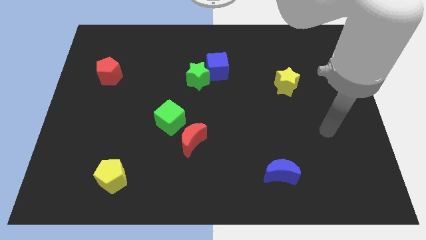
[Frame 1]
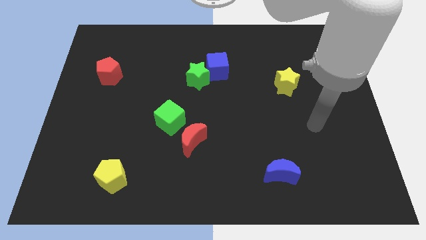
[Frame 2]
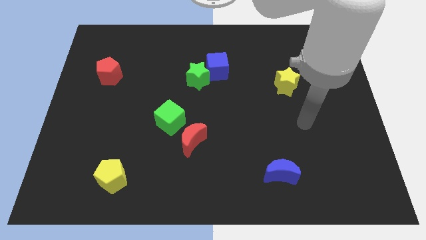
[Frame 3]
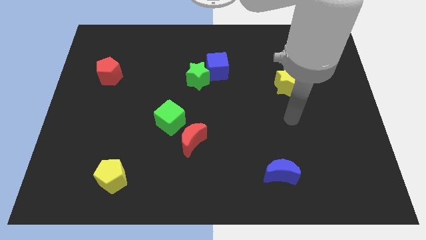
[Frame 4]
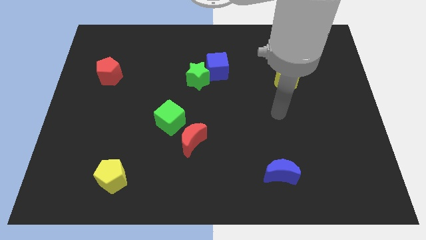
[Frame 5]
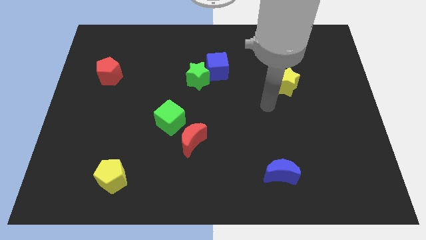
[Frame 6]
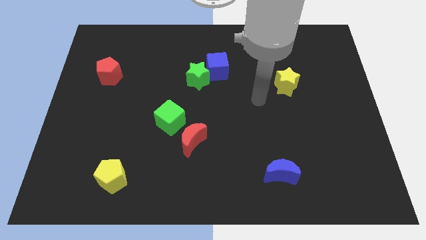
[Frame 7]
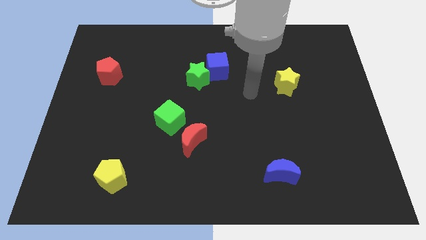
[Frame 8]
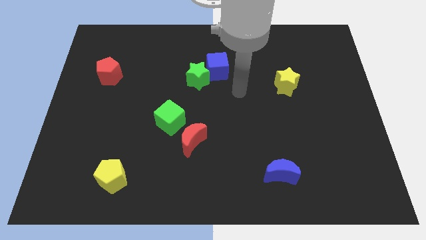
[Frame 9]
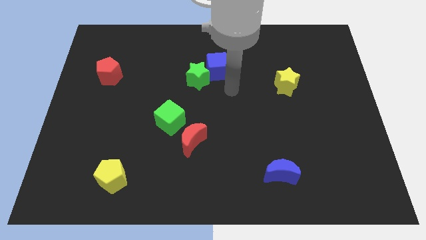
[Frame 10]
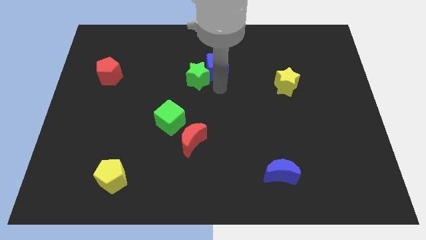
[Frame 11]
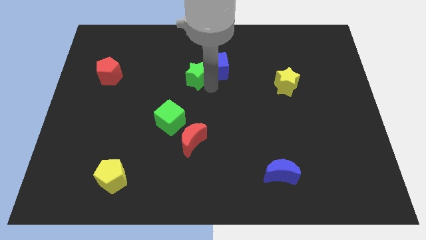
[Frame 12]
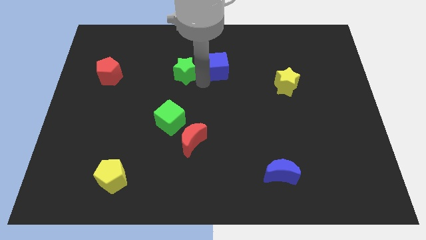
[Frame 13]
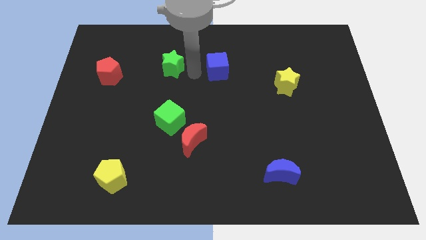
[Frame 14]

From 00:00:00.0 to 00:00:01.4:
move the blue cube away from the green star

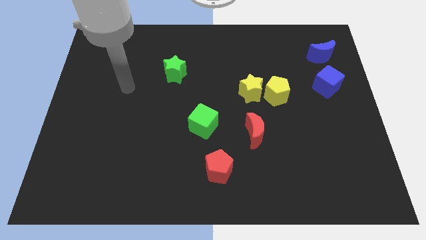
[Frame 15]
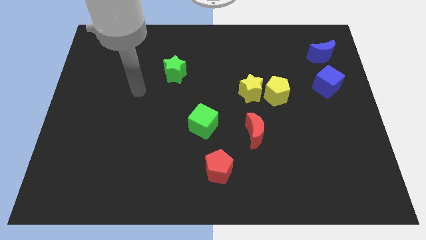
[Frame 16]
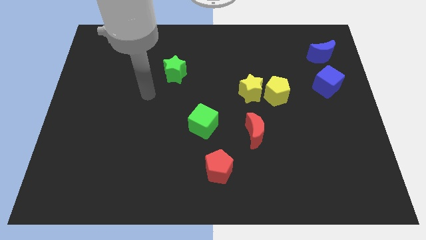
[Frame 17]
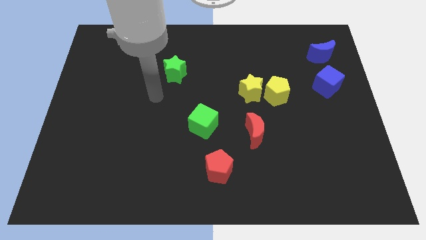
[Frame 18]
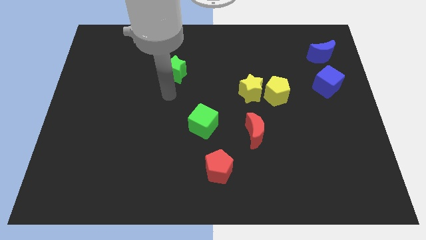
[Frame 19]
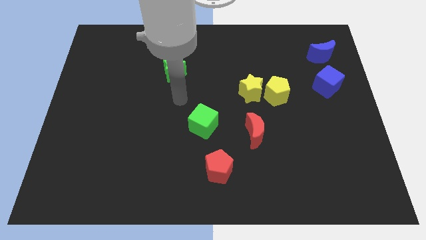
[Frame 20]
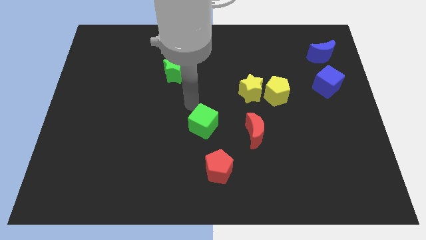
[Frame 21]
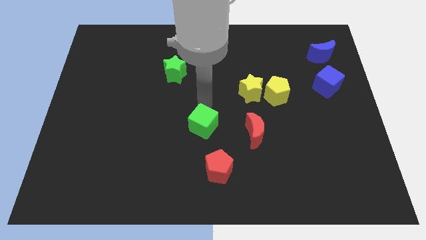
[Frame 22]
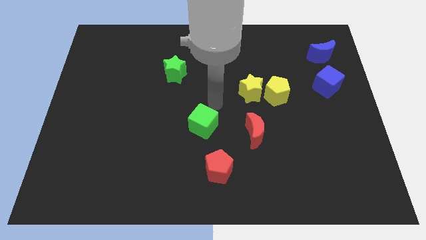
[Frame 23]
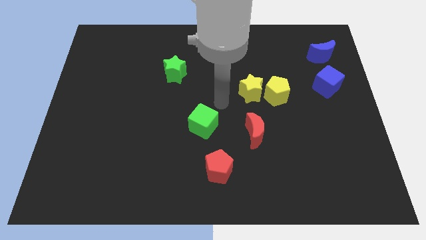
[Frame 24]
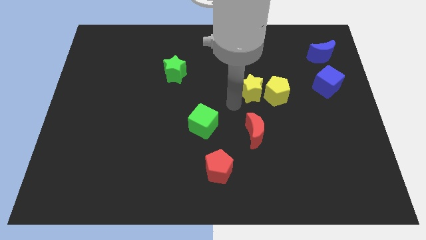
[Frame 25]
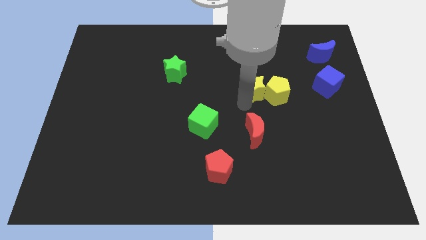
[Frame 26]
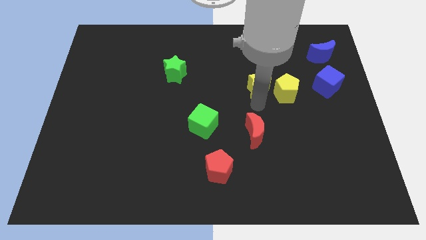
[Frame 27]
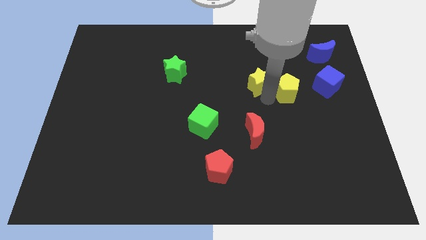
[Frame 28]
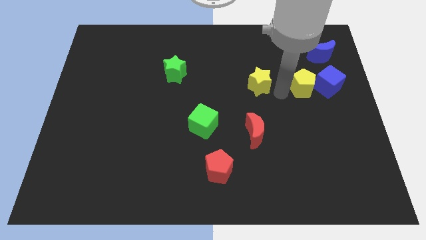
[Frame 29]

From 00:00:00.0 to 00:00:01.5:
separate the yellow star from the yellow pentagon

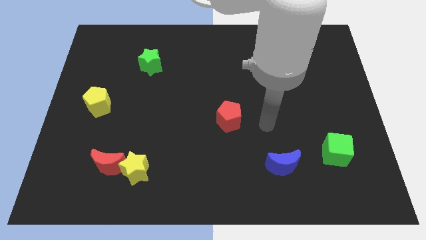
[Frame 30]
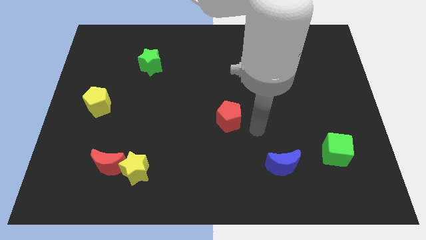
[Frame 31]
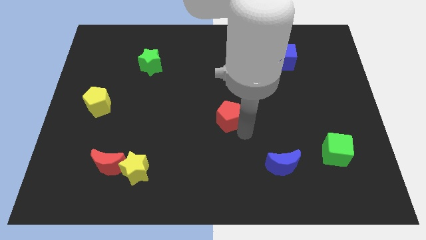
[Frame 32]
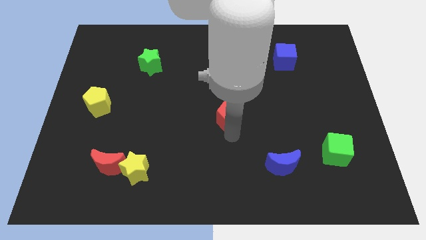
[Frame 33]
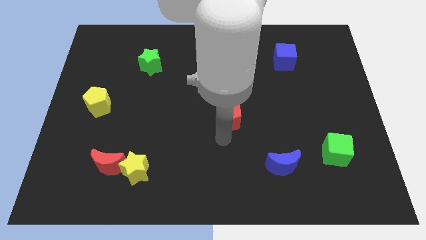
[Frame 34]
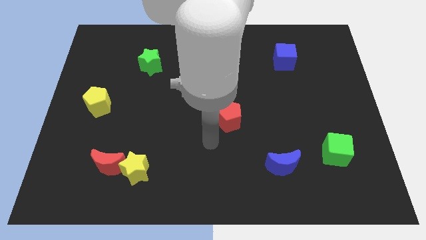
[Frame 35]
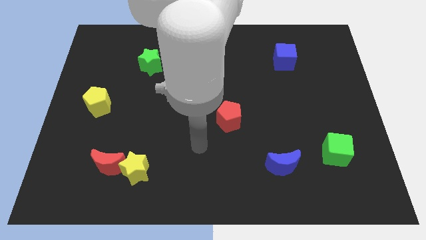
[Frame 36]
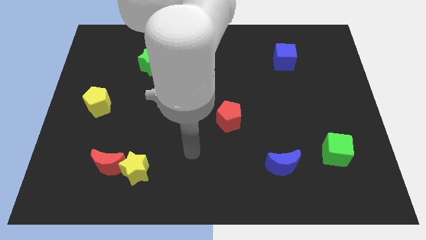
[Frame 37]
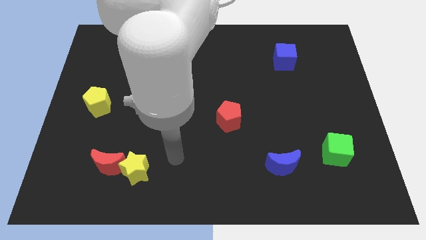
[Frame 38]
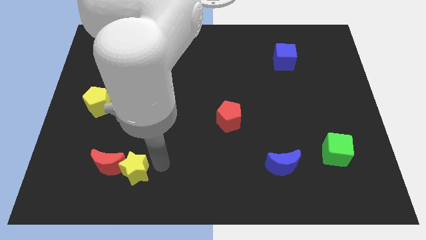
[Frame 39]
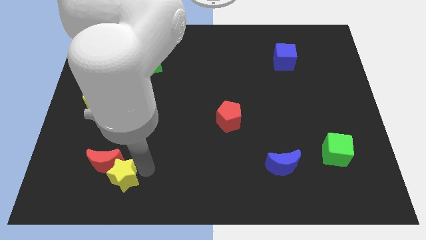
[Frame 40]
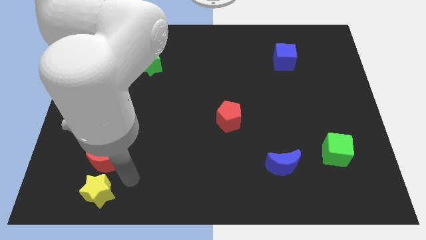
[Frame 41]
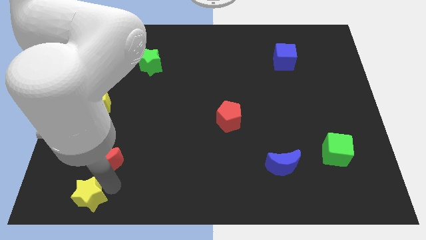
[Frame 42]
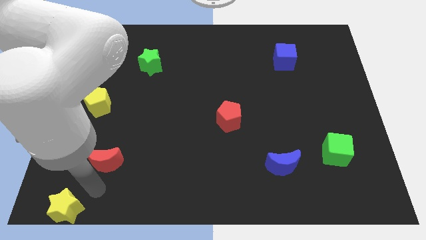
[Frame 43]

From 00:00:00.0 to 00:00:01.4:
move the red moon away from the yellow star

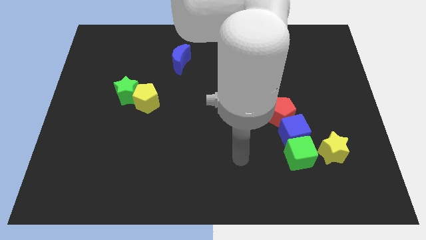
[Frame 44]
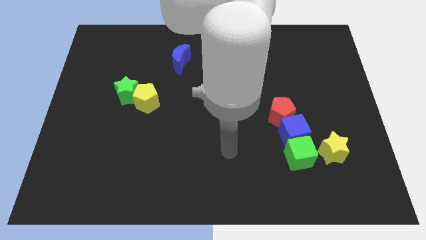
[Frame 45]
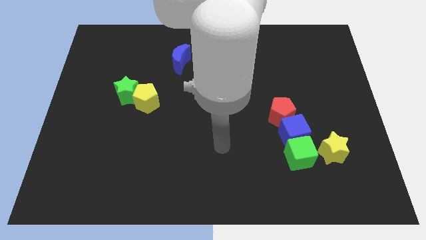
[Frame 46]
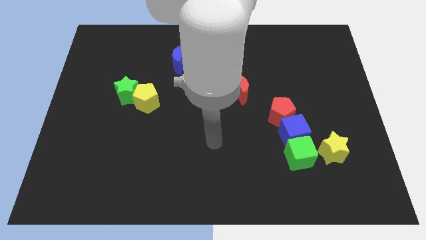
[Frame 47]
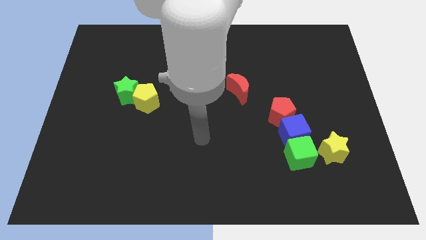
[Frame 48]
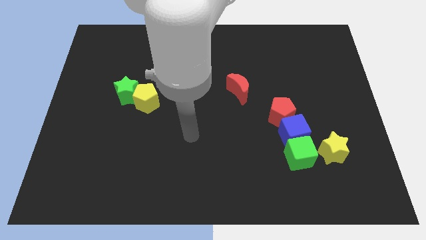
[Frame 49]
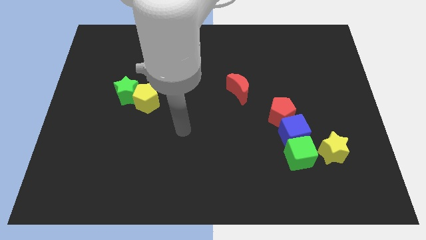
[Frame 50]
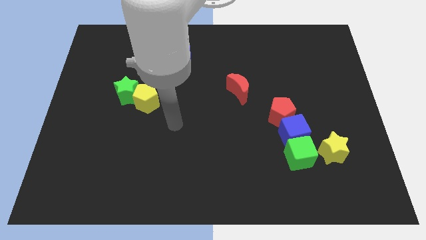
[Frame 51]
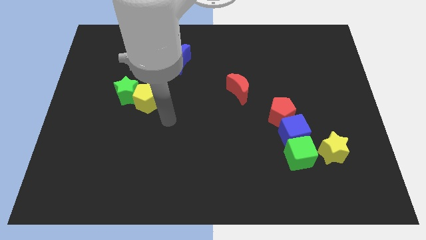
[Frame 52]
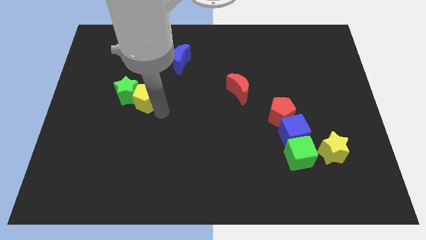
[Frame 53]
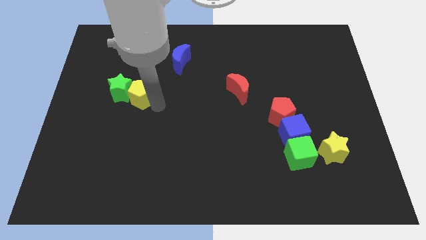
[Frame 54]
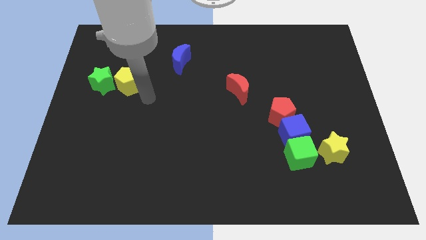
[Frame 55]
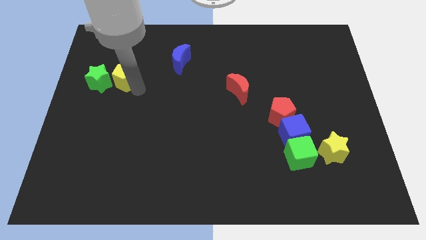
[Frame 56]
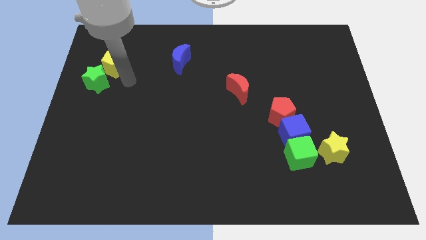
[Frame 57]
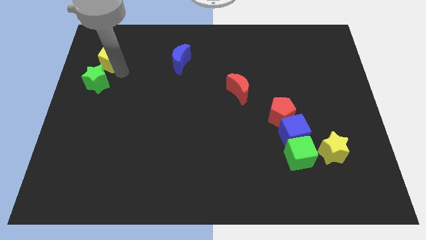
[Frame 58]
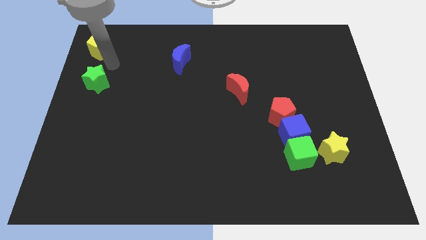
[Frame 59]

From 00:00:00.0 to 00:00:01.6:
move the green star away from the yellow pentagon

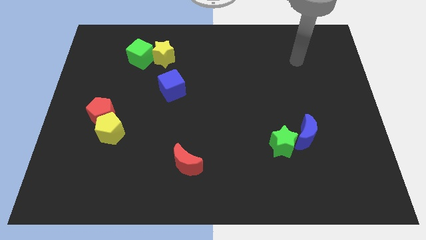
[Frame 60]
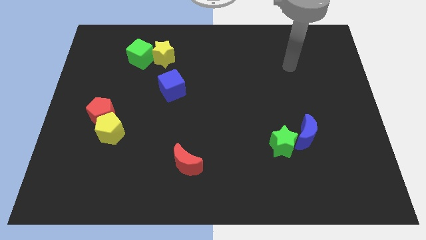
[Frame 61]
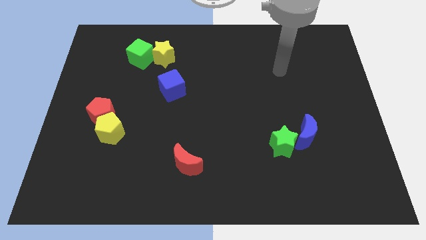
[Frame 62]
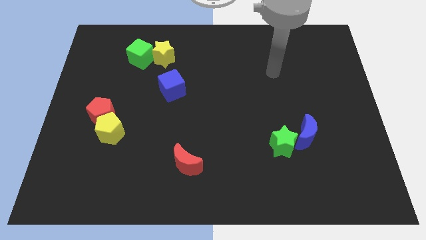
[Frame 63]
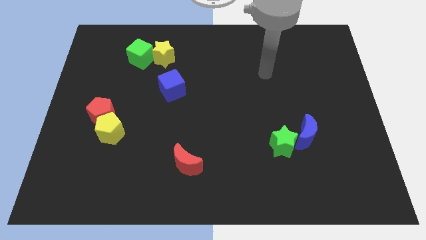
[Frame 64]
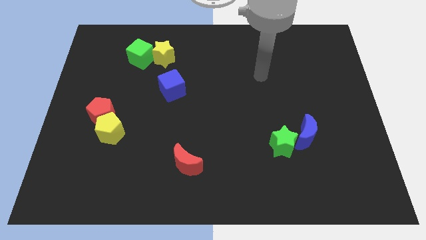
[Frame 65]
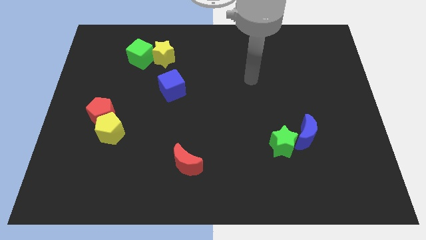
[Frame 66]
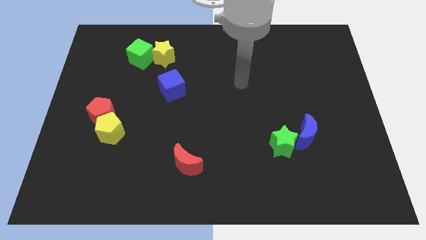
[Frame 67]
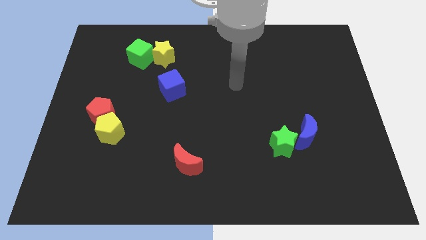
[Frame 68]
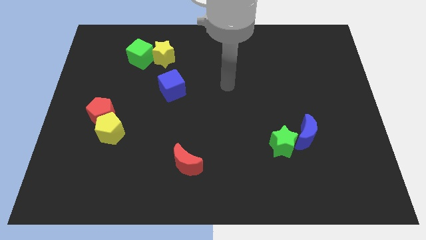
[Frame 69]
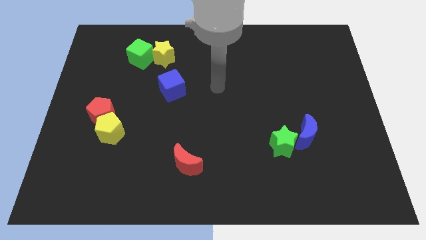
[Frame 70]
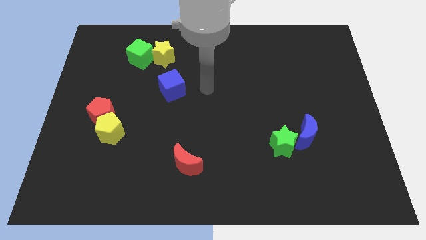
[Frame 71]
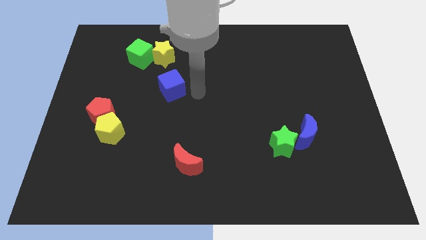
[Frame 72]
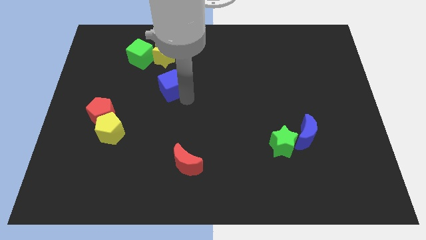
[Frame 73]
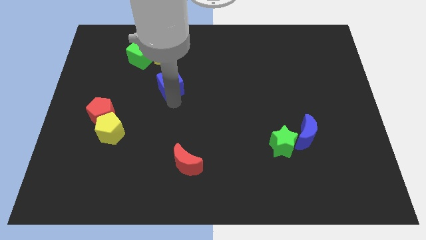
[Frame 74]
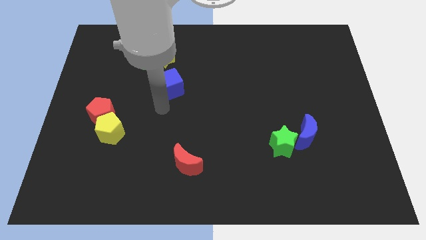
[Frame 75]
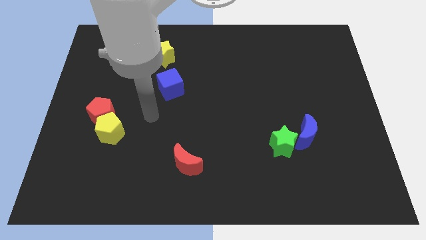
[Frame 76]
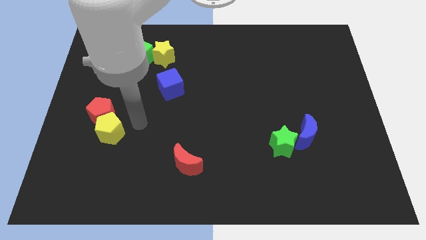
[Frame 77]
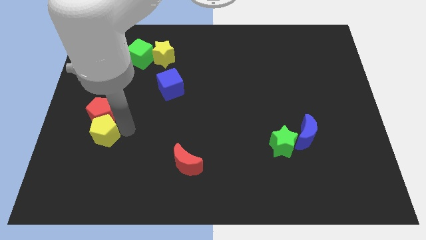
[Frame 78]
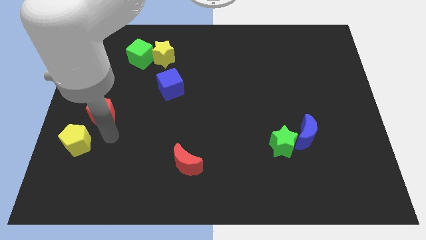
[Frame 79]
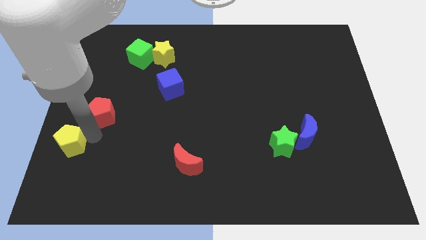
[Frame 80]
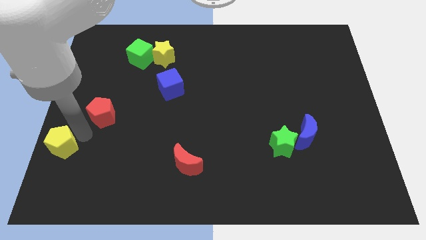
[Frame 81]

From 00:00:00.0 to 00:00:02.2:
move the red pentagon away from the yellow pentagon

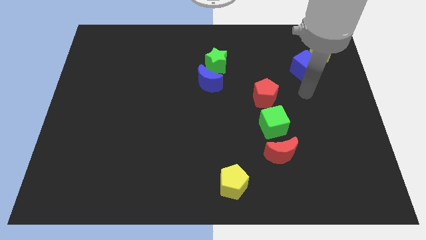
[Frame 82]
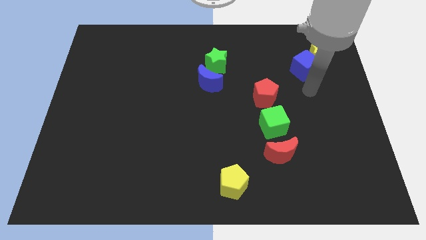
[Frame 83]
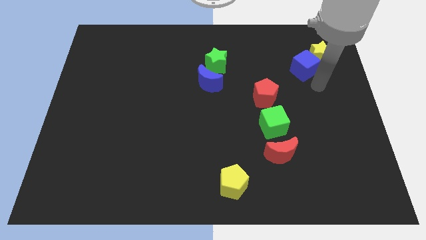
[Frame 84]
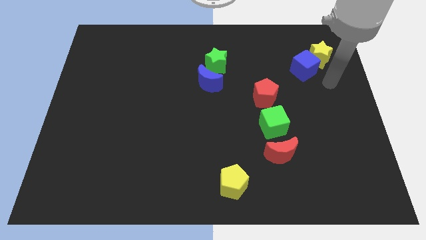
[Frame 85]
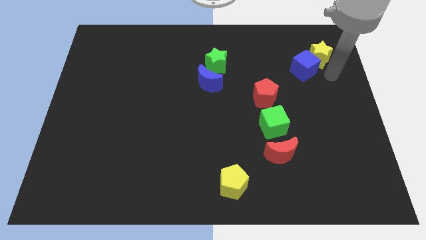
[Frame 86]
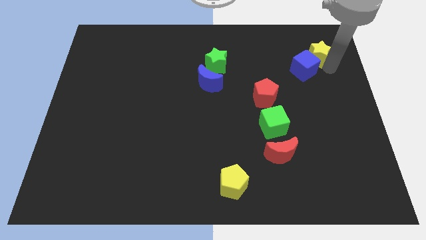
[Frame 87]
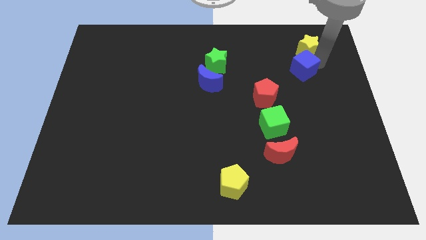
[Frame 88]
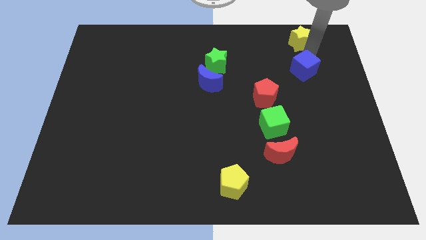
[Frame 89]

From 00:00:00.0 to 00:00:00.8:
move the blue cube away from the yellow star

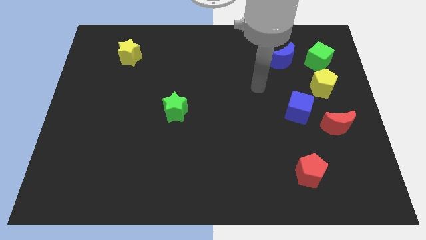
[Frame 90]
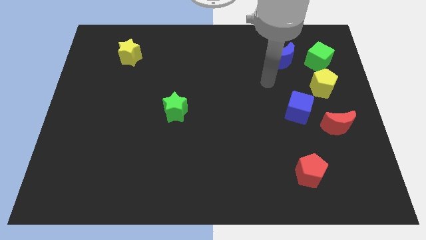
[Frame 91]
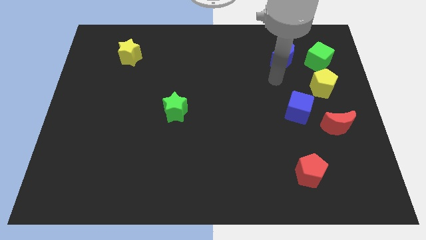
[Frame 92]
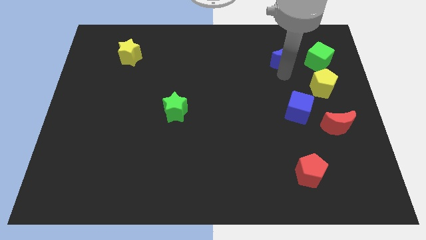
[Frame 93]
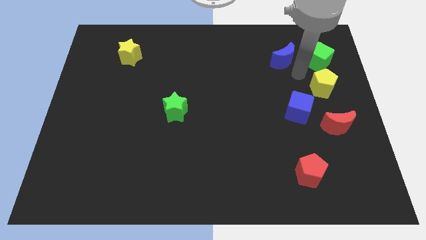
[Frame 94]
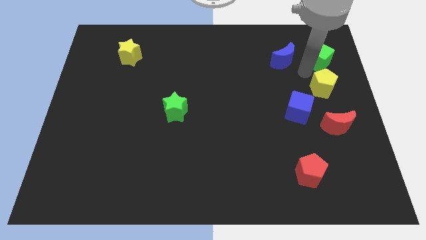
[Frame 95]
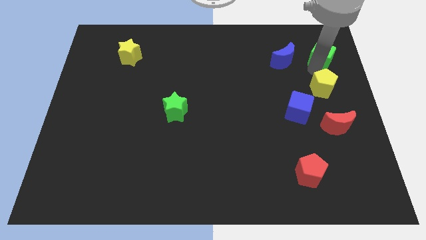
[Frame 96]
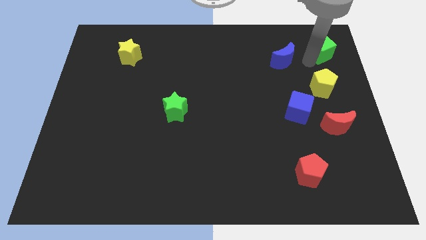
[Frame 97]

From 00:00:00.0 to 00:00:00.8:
pull the blue moon apart from the green cube
